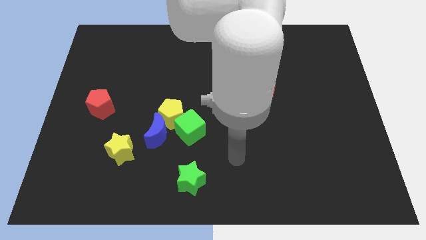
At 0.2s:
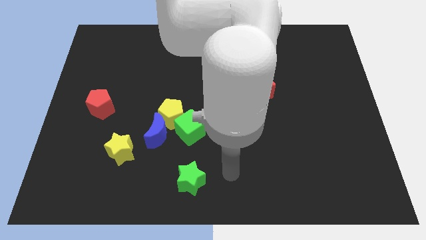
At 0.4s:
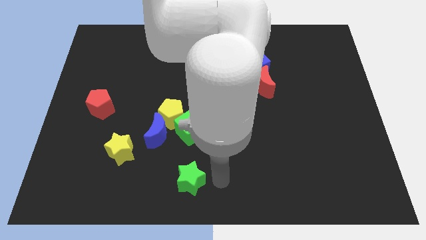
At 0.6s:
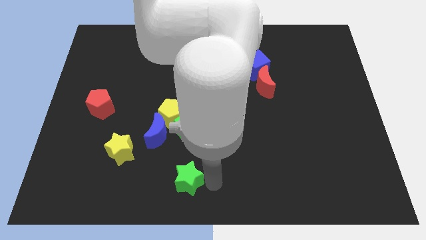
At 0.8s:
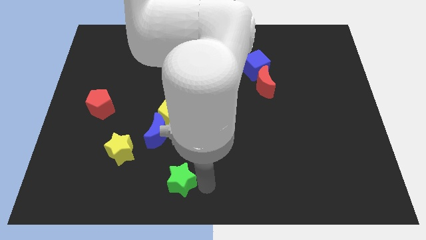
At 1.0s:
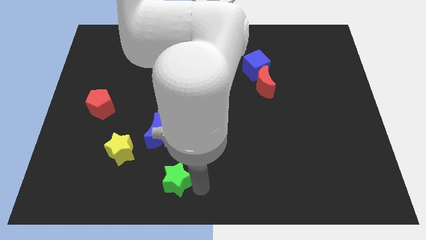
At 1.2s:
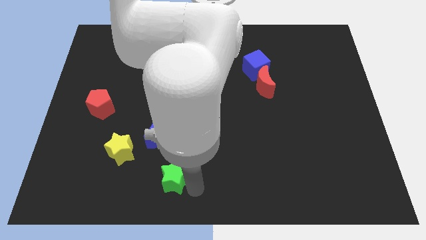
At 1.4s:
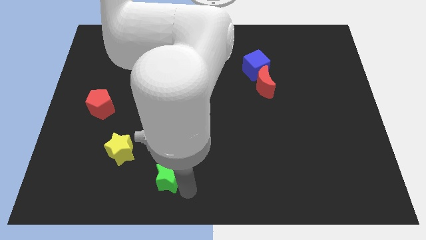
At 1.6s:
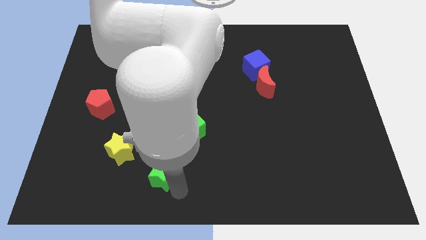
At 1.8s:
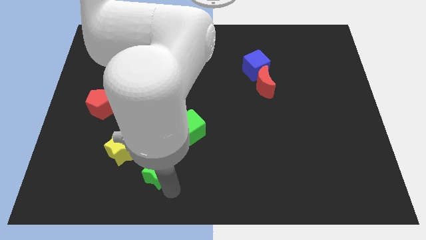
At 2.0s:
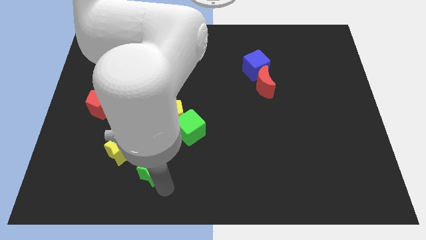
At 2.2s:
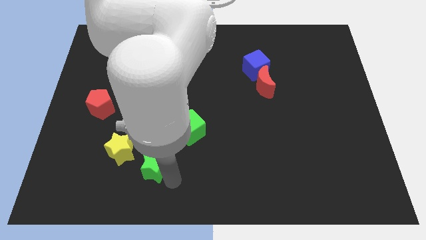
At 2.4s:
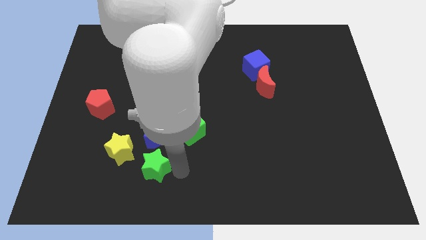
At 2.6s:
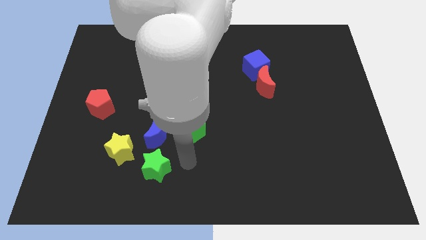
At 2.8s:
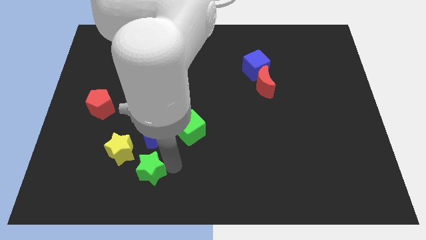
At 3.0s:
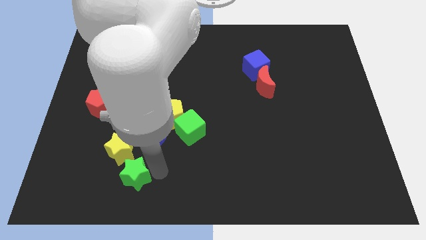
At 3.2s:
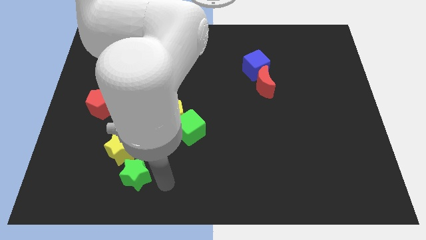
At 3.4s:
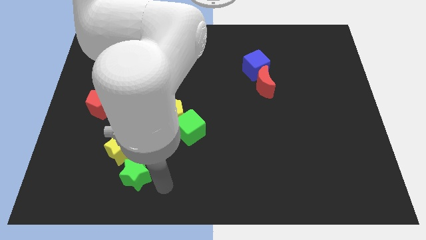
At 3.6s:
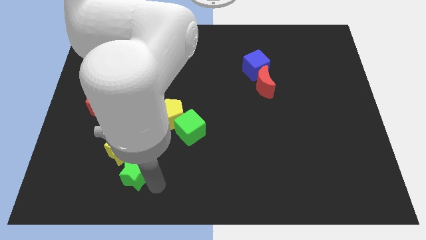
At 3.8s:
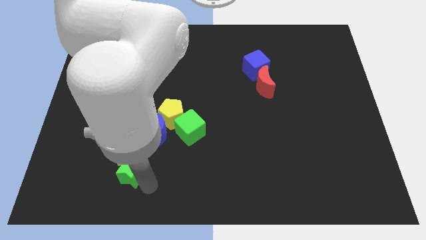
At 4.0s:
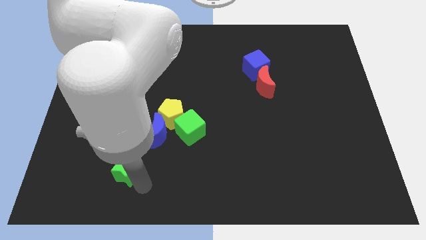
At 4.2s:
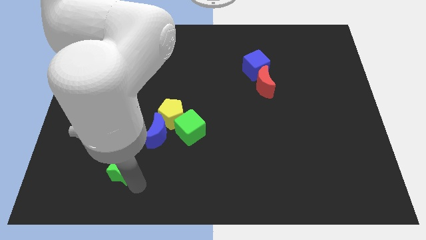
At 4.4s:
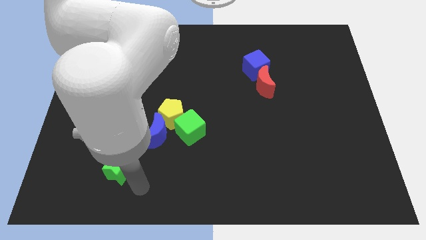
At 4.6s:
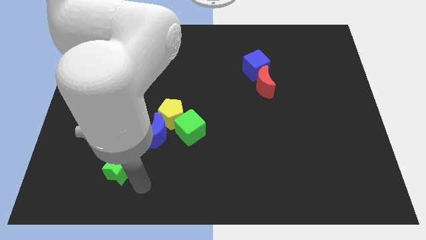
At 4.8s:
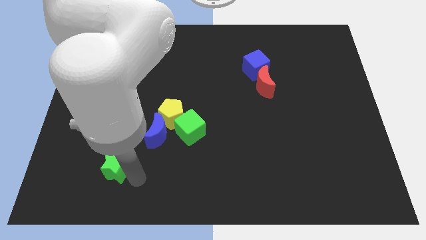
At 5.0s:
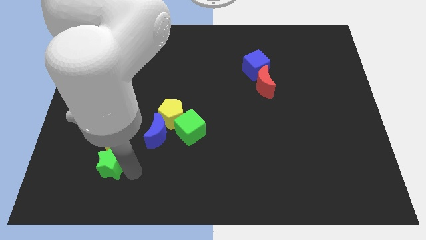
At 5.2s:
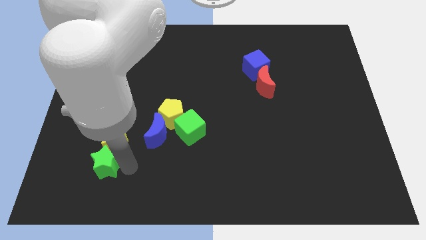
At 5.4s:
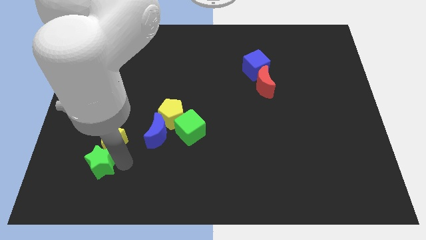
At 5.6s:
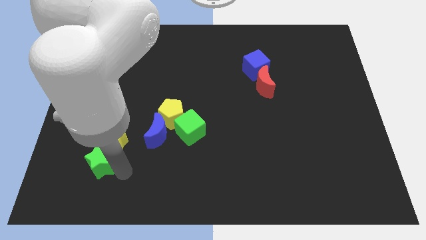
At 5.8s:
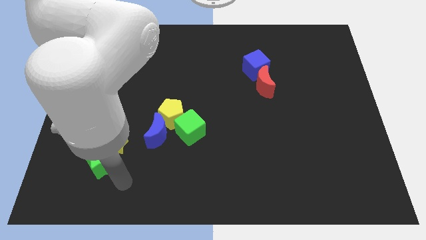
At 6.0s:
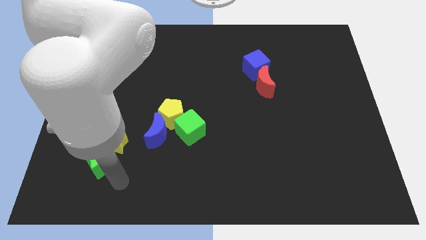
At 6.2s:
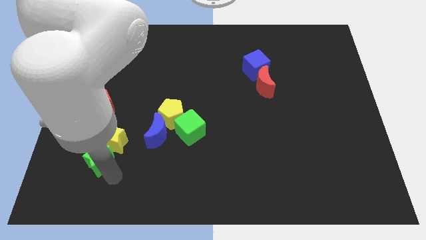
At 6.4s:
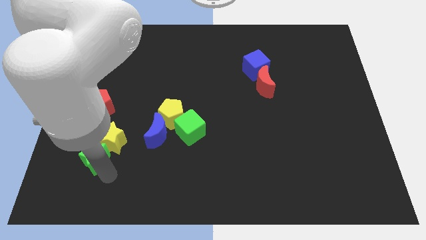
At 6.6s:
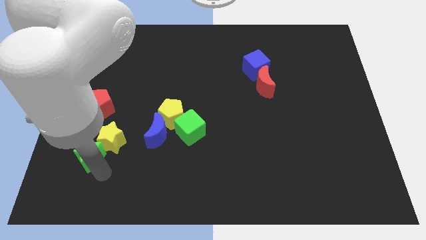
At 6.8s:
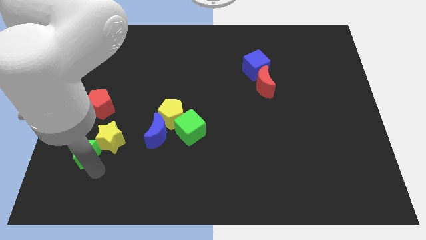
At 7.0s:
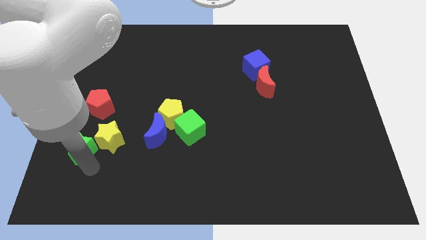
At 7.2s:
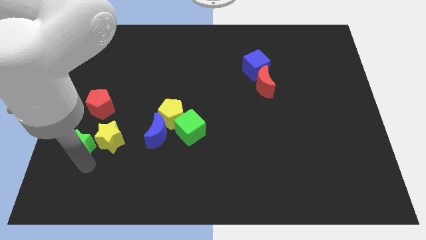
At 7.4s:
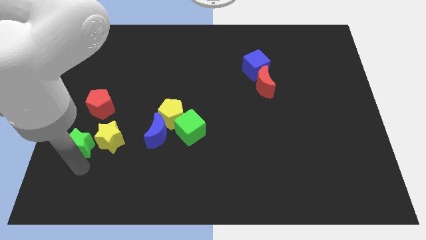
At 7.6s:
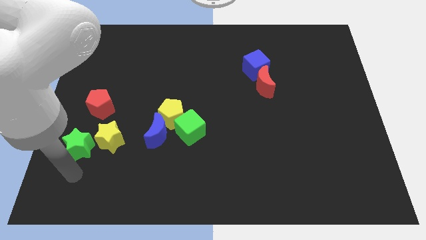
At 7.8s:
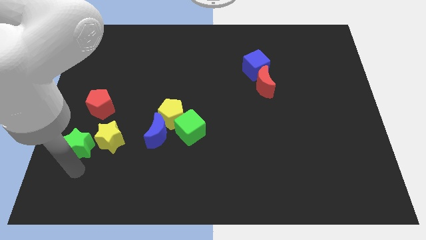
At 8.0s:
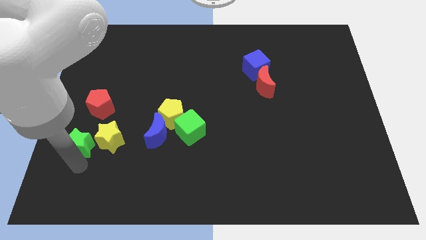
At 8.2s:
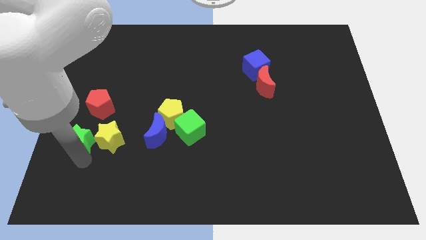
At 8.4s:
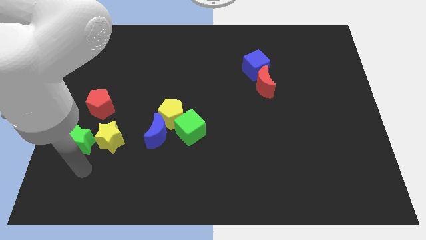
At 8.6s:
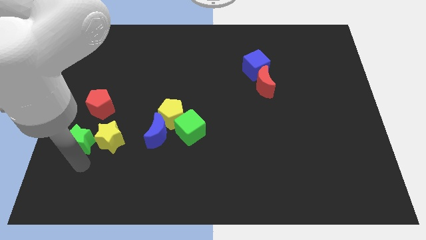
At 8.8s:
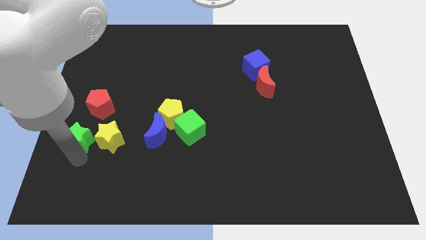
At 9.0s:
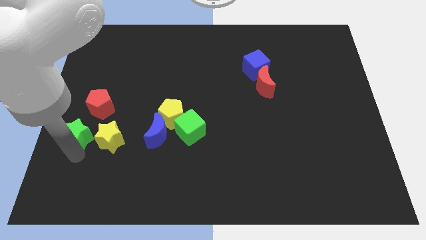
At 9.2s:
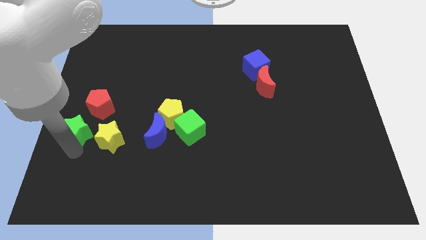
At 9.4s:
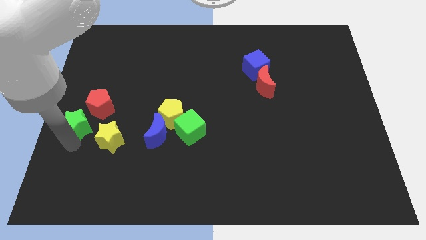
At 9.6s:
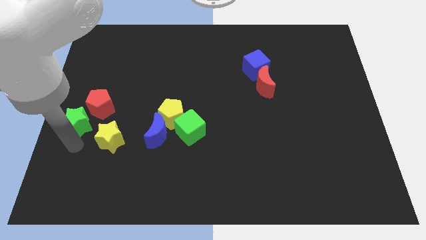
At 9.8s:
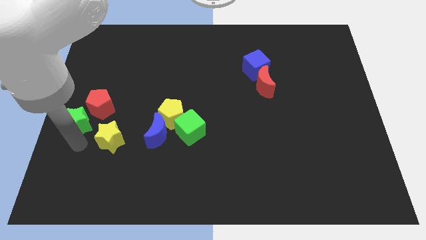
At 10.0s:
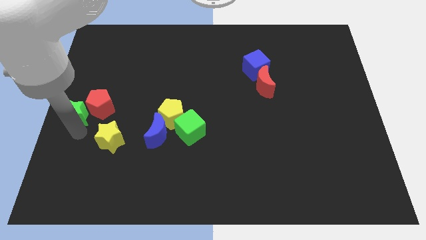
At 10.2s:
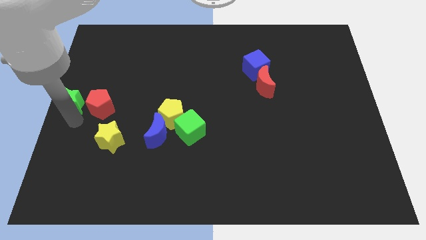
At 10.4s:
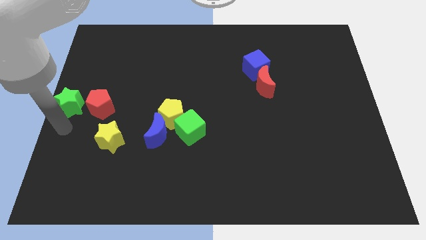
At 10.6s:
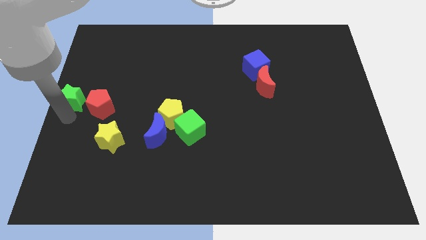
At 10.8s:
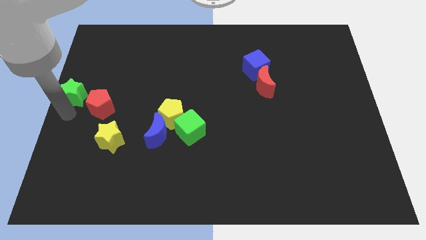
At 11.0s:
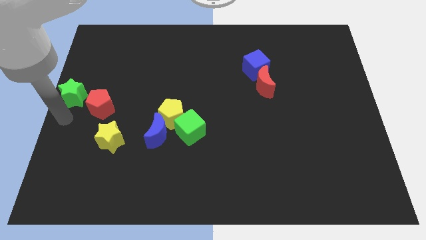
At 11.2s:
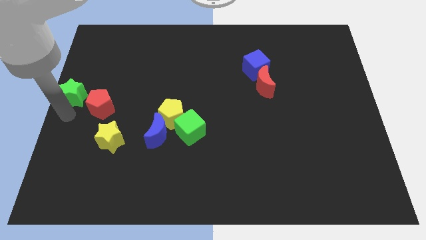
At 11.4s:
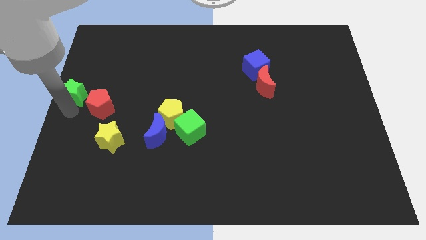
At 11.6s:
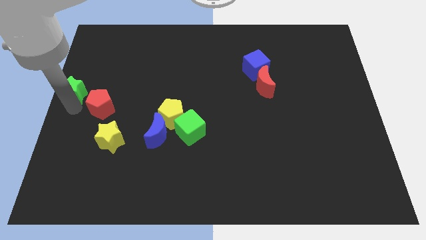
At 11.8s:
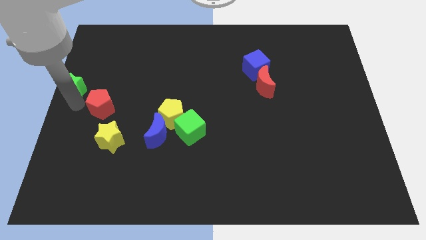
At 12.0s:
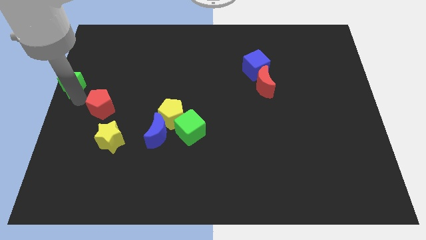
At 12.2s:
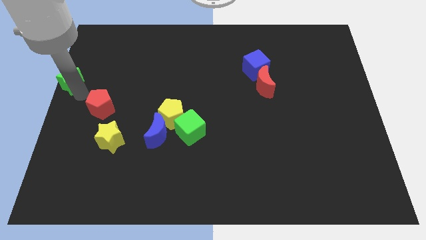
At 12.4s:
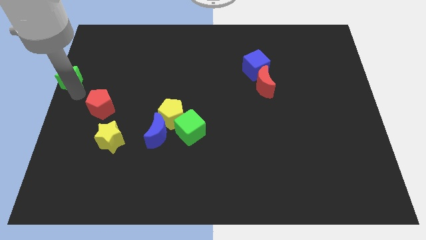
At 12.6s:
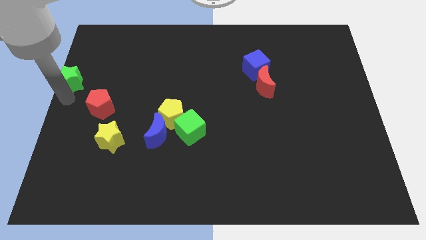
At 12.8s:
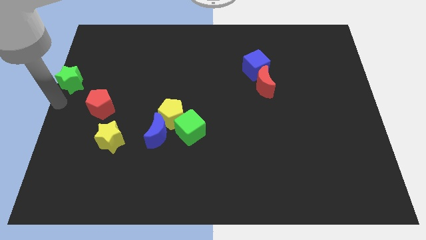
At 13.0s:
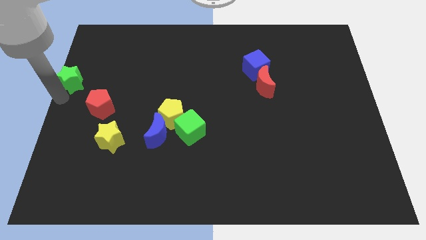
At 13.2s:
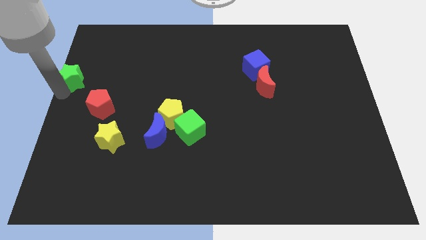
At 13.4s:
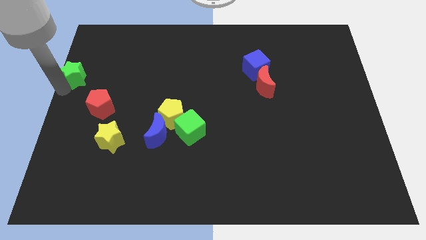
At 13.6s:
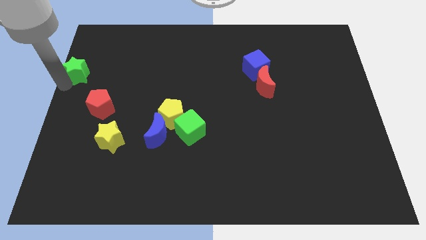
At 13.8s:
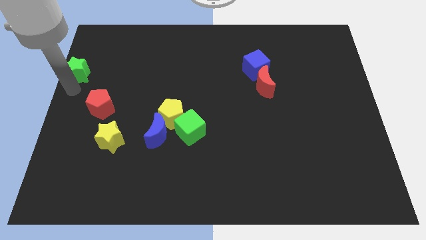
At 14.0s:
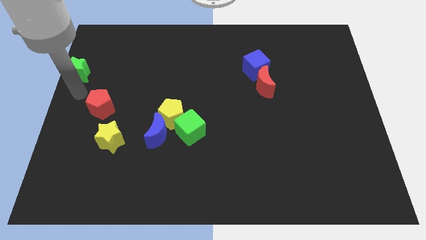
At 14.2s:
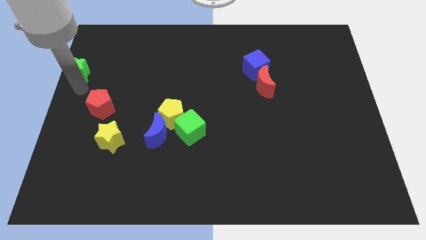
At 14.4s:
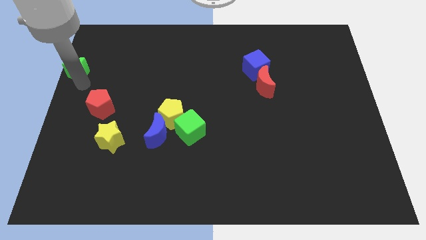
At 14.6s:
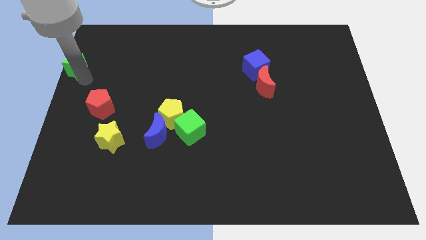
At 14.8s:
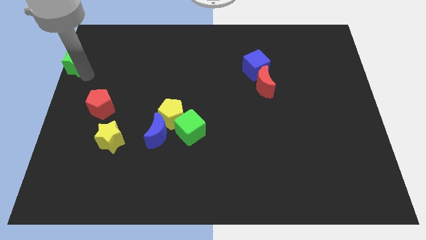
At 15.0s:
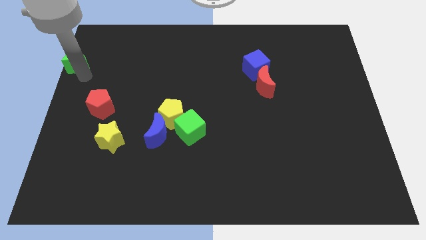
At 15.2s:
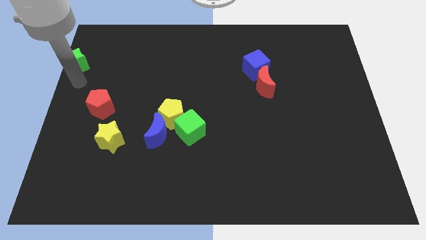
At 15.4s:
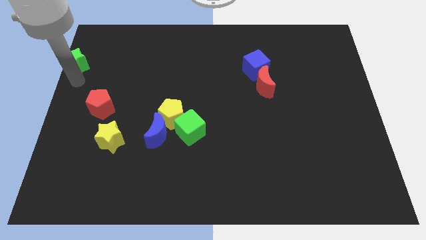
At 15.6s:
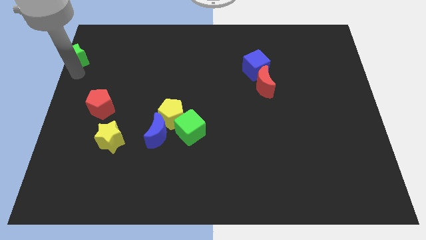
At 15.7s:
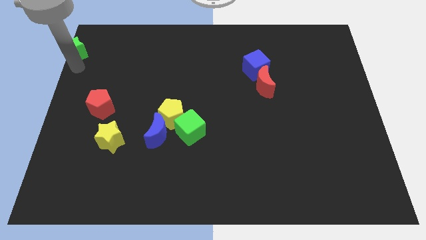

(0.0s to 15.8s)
move the green star to the top left of the board
